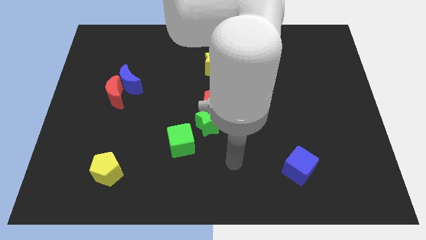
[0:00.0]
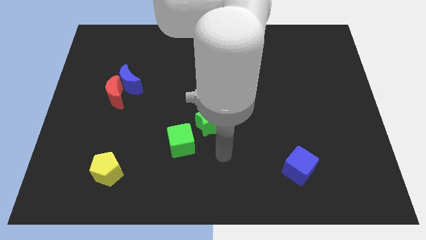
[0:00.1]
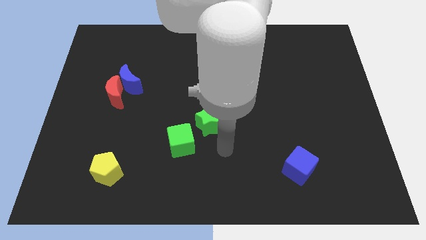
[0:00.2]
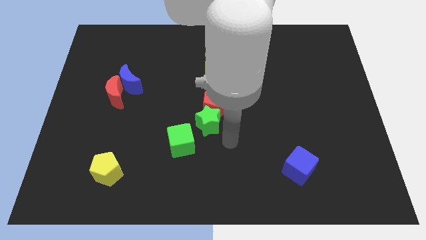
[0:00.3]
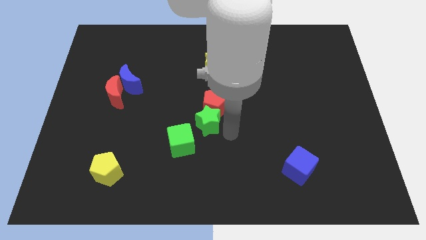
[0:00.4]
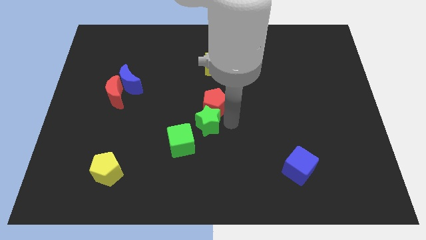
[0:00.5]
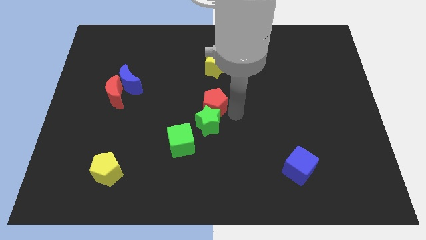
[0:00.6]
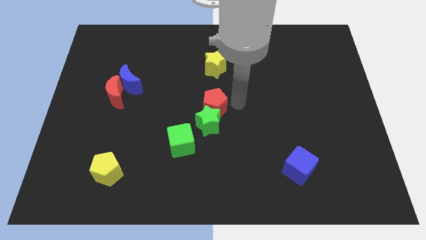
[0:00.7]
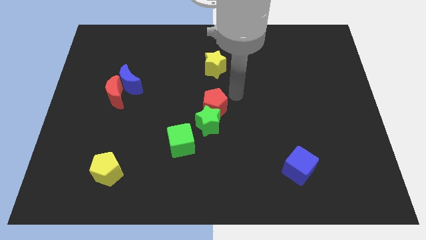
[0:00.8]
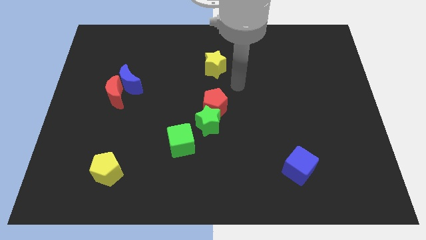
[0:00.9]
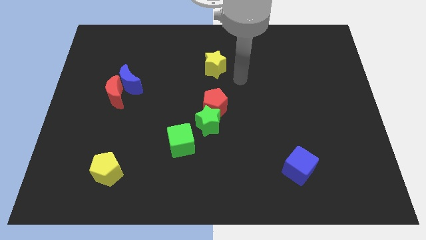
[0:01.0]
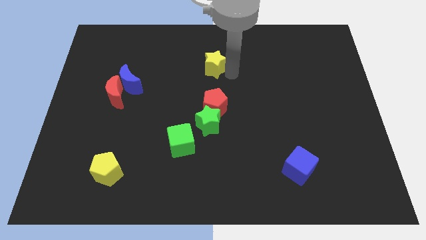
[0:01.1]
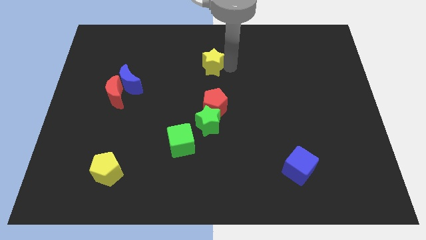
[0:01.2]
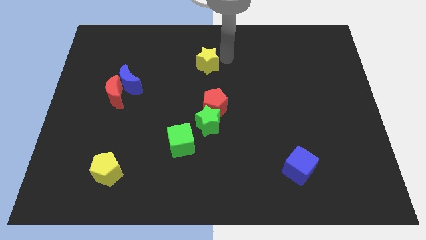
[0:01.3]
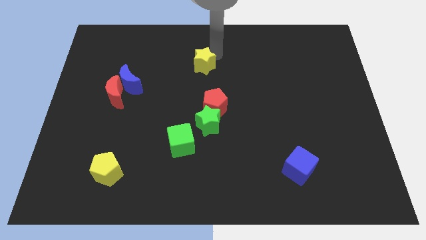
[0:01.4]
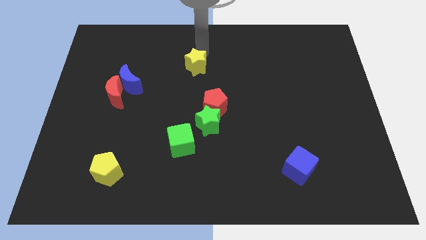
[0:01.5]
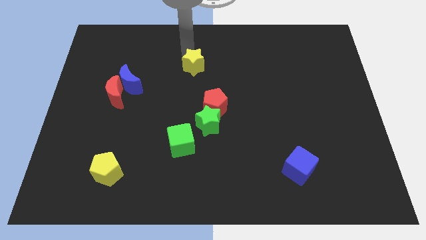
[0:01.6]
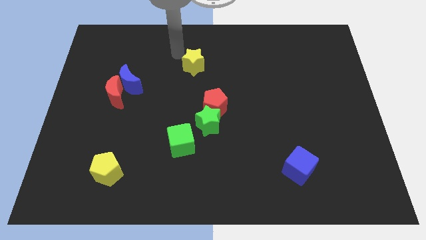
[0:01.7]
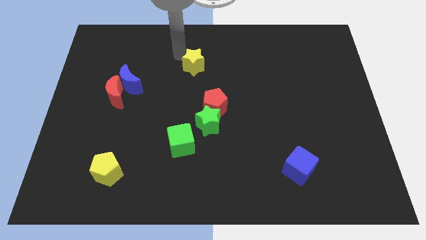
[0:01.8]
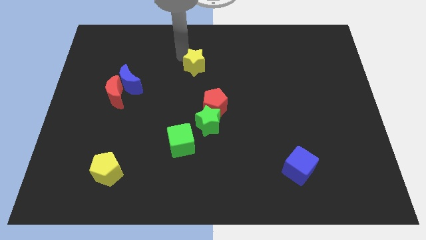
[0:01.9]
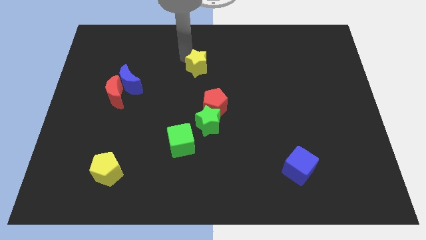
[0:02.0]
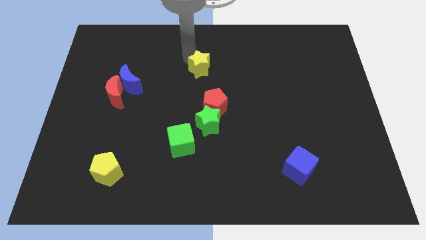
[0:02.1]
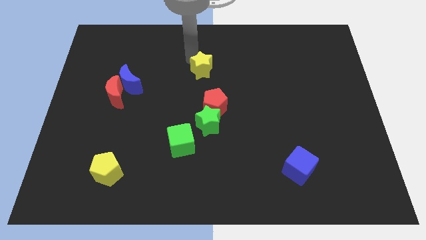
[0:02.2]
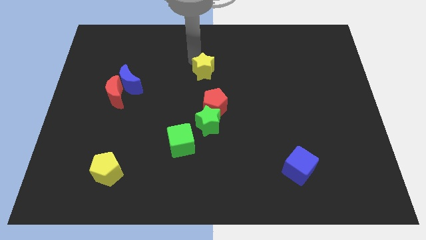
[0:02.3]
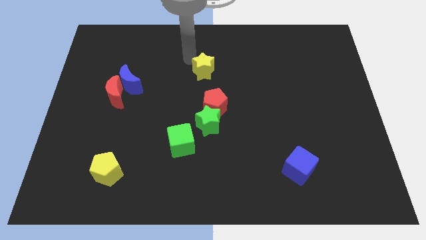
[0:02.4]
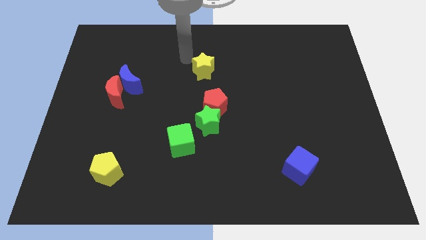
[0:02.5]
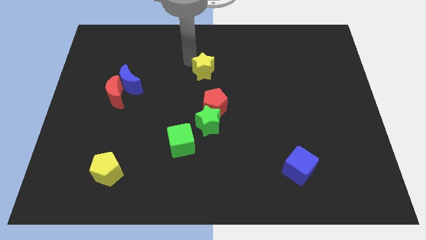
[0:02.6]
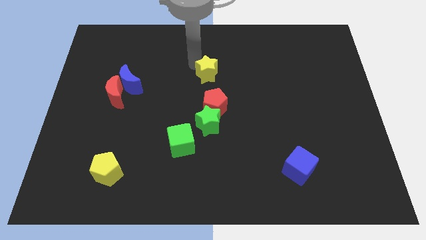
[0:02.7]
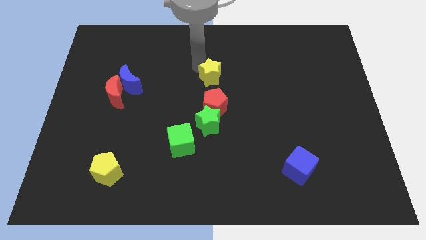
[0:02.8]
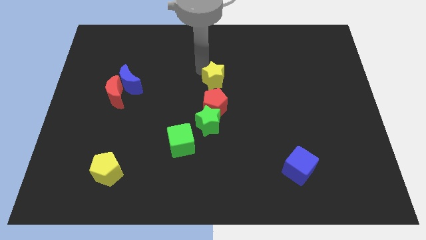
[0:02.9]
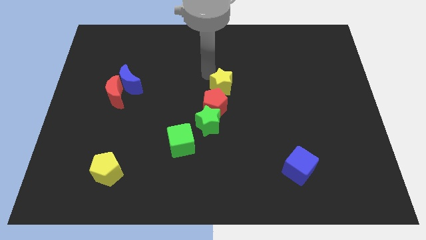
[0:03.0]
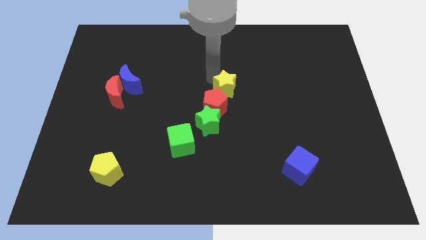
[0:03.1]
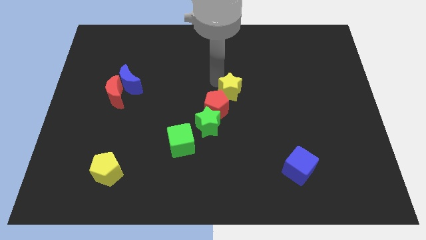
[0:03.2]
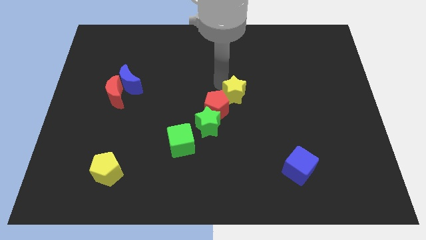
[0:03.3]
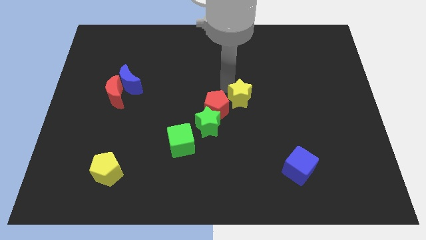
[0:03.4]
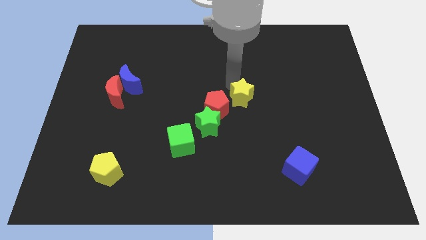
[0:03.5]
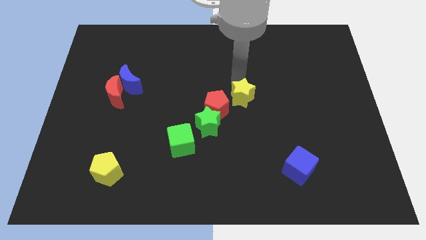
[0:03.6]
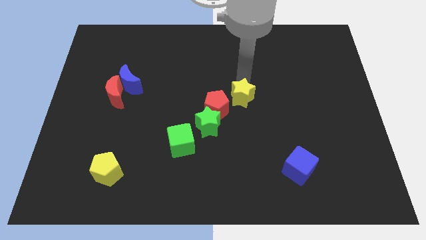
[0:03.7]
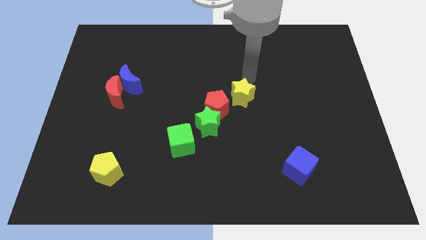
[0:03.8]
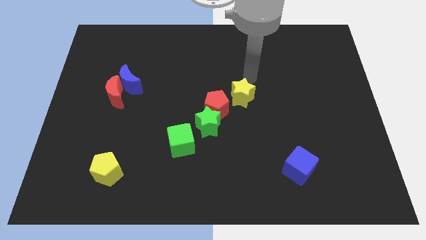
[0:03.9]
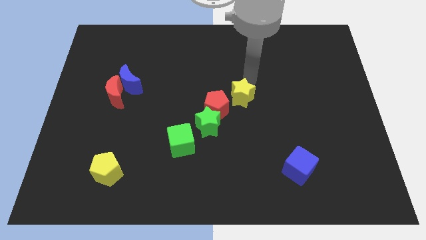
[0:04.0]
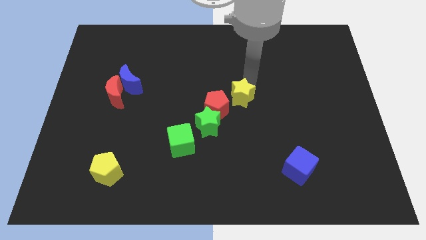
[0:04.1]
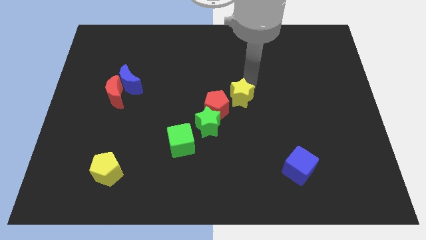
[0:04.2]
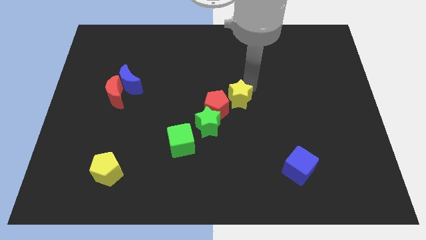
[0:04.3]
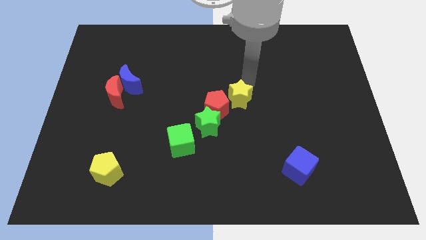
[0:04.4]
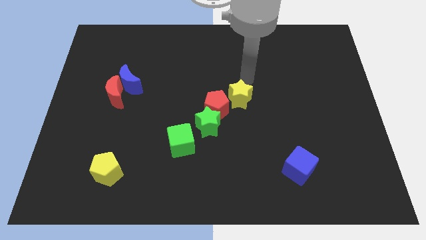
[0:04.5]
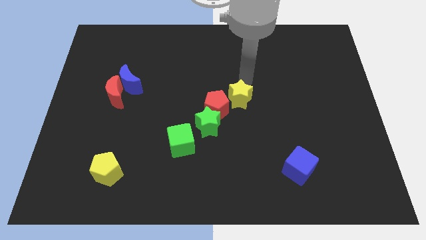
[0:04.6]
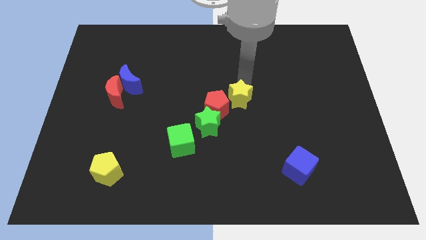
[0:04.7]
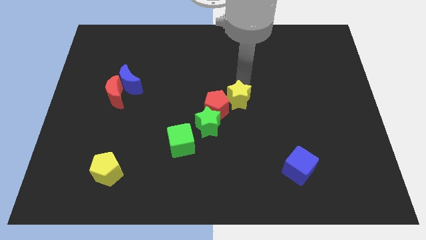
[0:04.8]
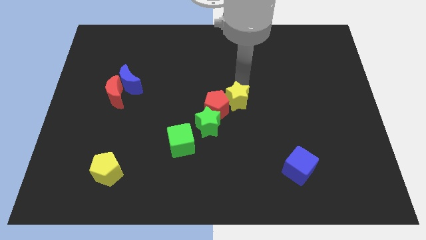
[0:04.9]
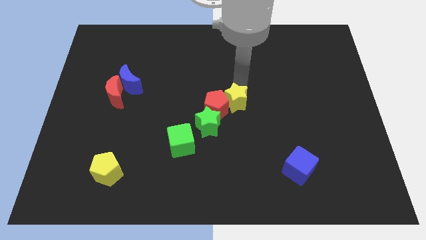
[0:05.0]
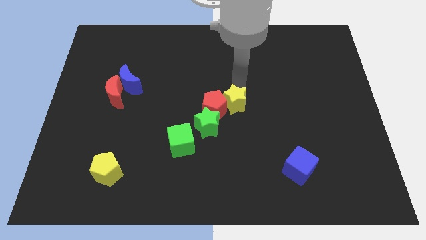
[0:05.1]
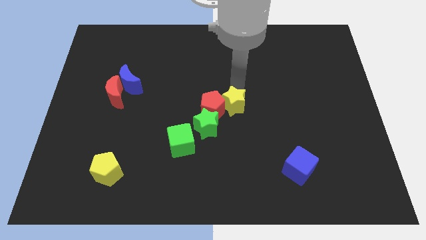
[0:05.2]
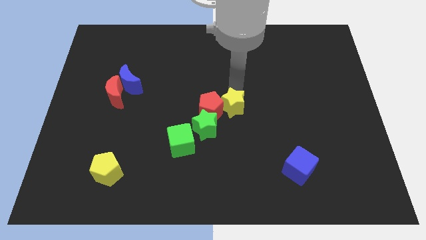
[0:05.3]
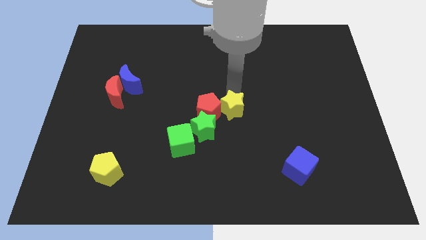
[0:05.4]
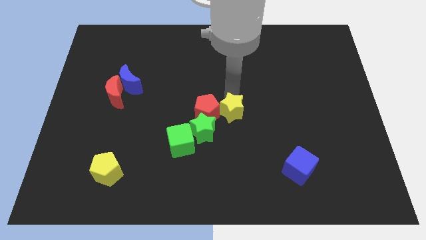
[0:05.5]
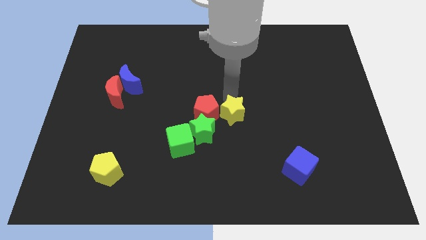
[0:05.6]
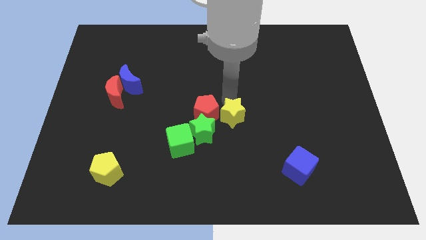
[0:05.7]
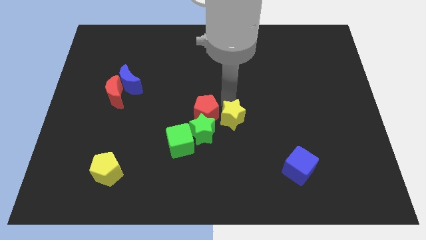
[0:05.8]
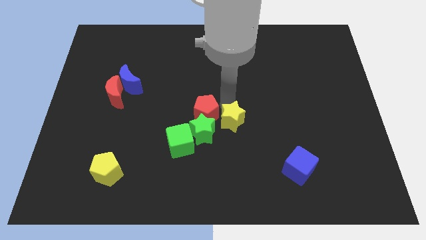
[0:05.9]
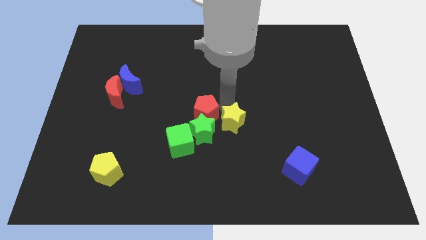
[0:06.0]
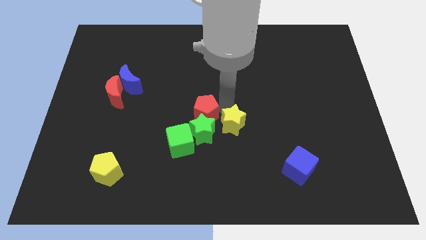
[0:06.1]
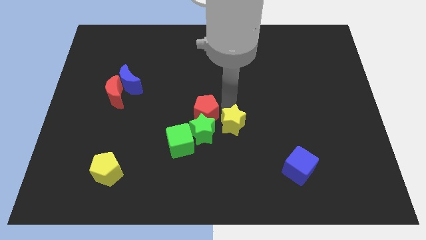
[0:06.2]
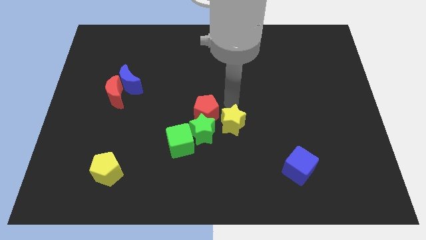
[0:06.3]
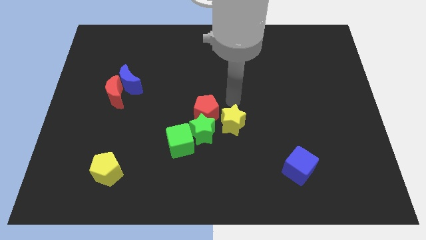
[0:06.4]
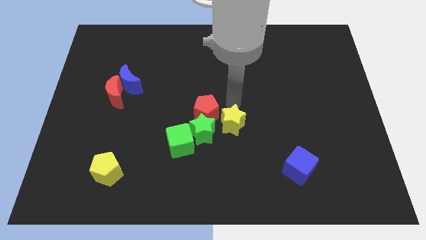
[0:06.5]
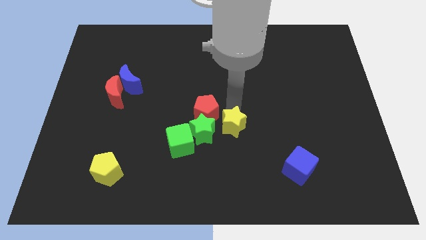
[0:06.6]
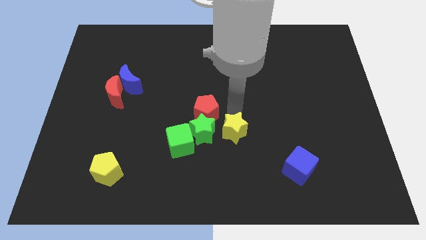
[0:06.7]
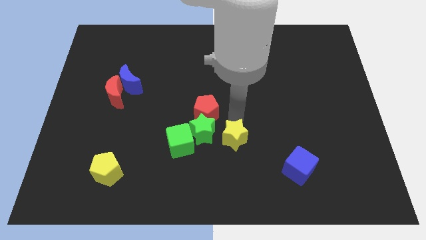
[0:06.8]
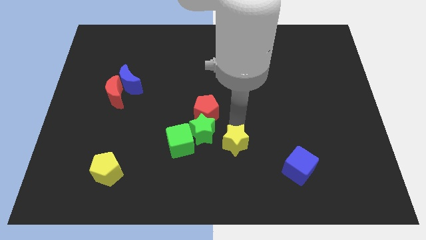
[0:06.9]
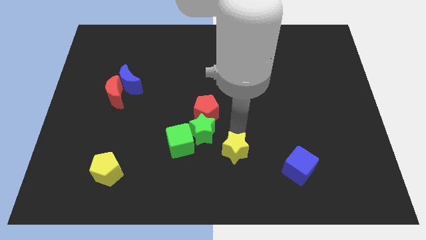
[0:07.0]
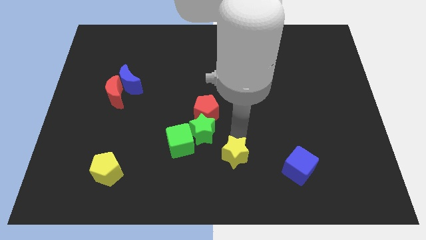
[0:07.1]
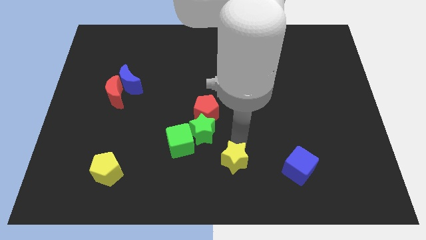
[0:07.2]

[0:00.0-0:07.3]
put the yellow star to the bottom
